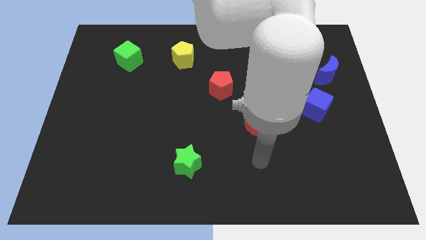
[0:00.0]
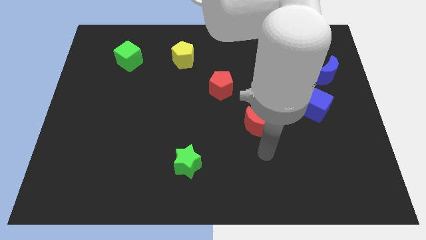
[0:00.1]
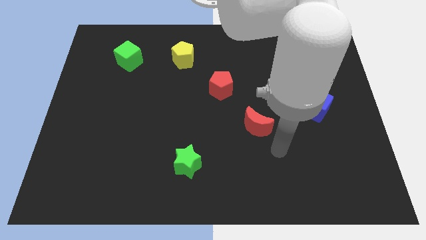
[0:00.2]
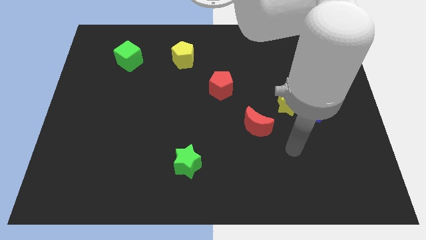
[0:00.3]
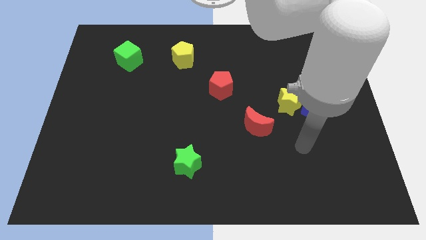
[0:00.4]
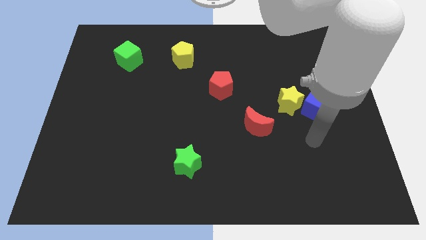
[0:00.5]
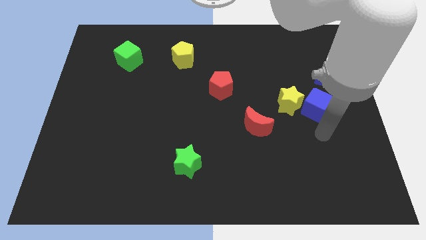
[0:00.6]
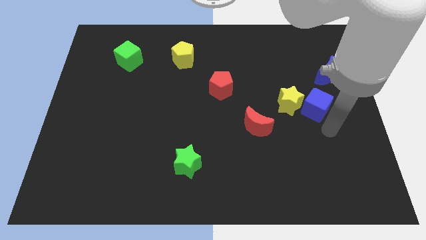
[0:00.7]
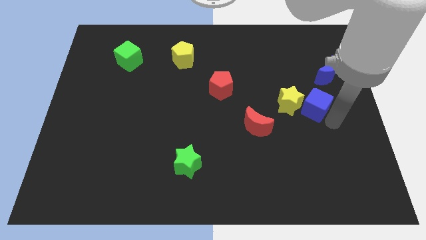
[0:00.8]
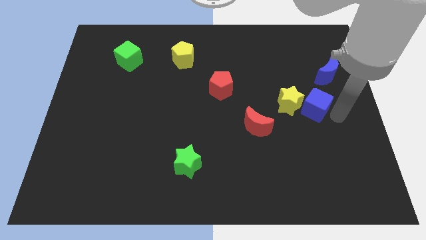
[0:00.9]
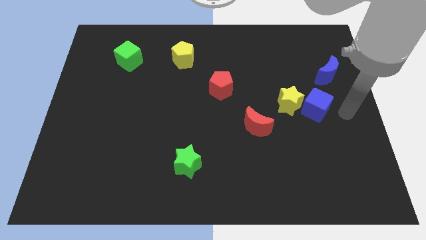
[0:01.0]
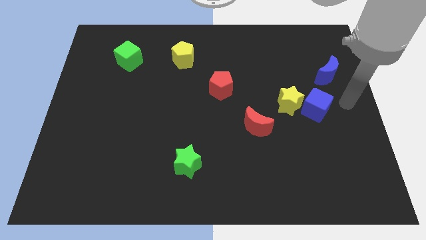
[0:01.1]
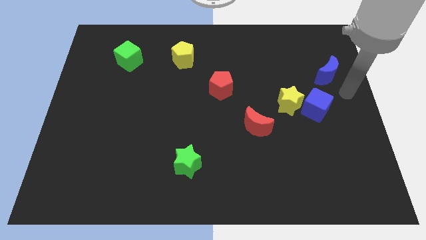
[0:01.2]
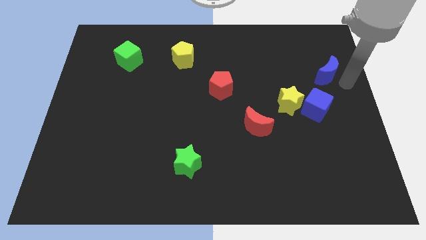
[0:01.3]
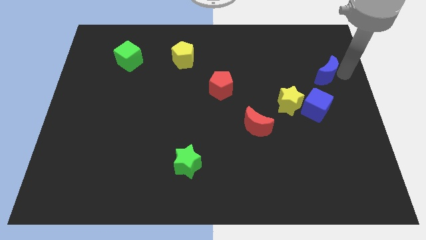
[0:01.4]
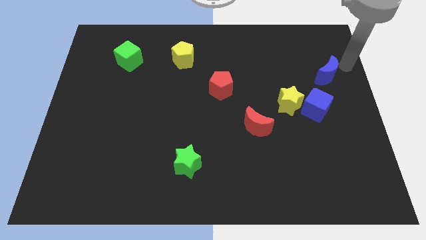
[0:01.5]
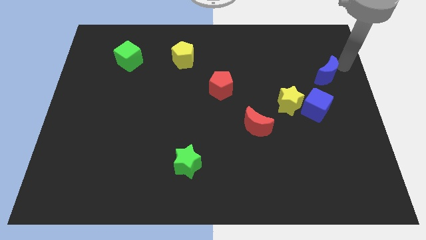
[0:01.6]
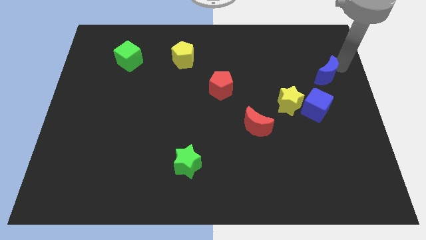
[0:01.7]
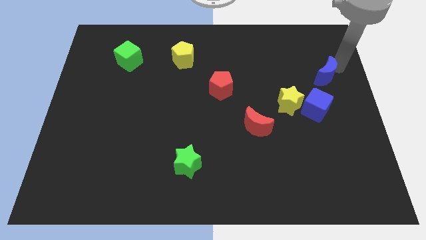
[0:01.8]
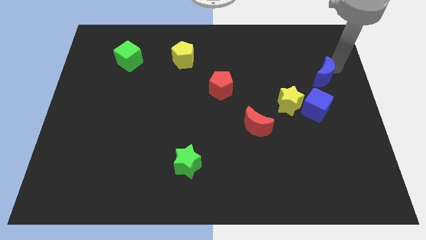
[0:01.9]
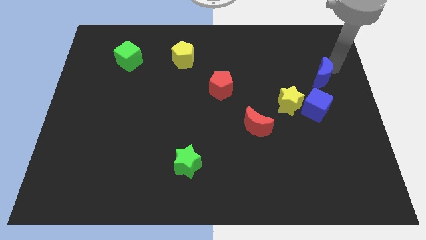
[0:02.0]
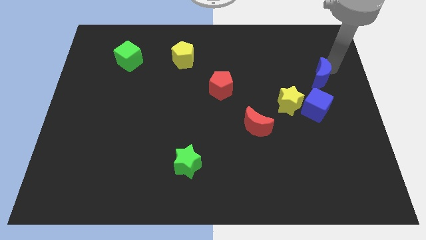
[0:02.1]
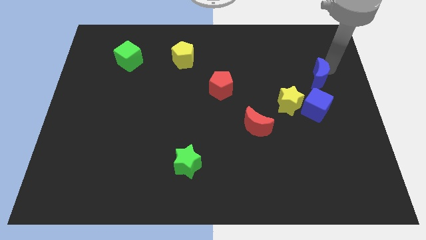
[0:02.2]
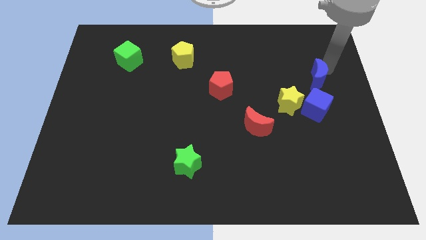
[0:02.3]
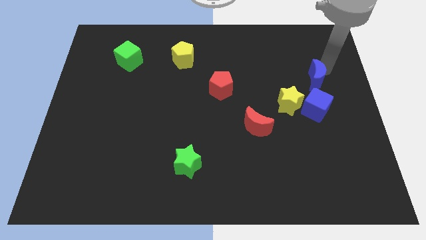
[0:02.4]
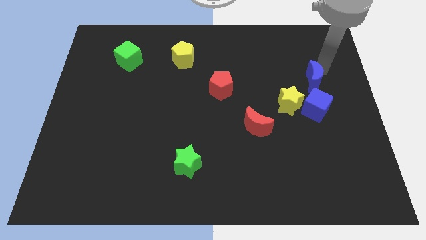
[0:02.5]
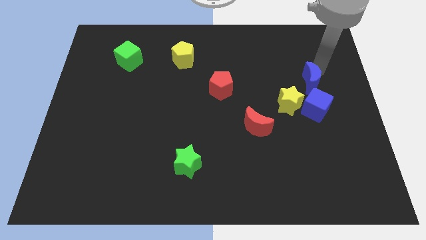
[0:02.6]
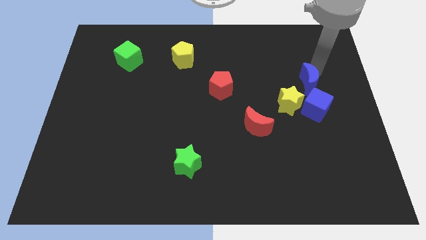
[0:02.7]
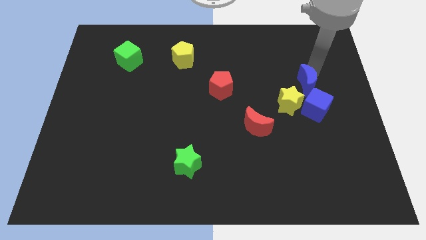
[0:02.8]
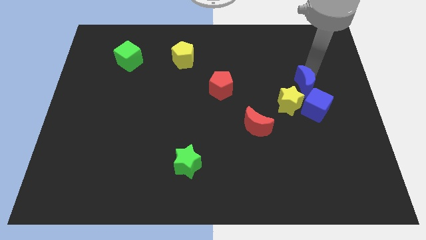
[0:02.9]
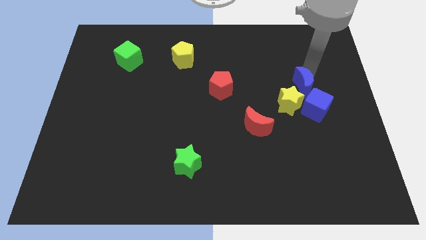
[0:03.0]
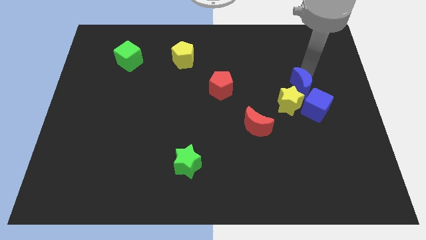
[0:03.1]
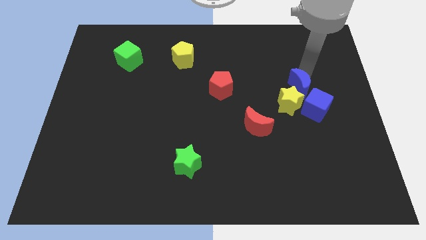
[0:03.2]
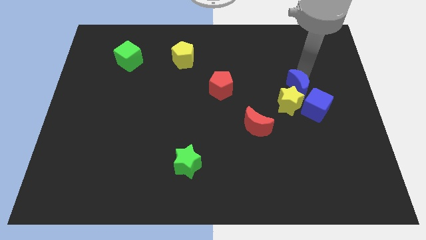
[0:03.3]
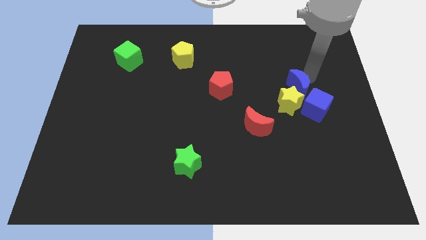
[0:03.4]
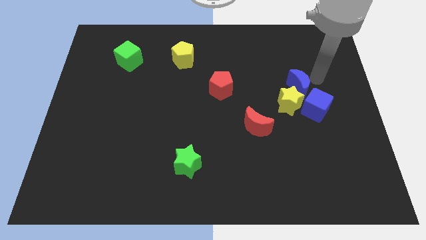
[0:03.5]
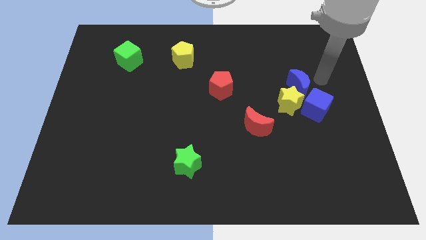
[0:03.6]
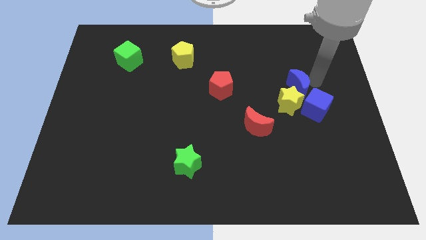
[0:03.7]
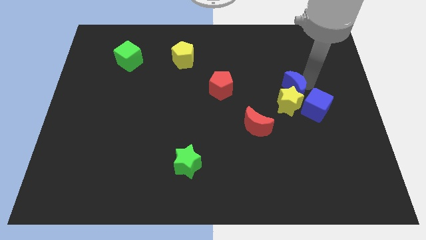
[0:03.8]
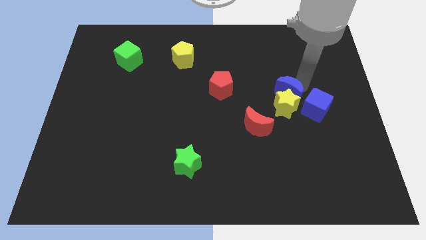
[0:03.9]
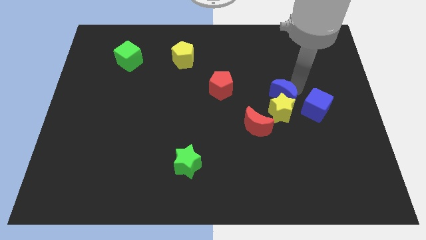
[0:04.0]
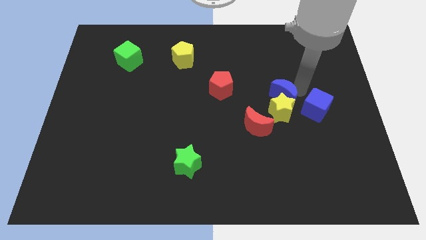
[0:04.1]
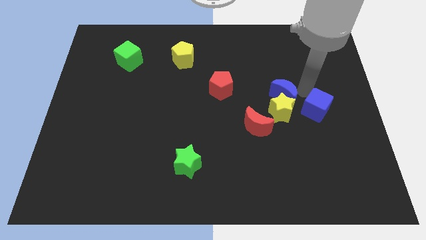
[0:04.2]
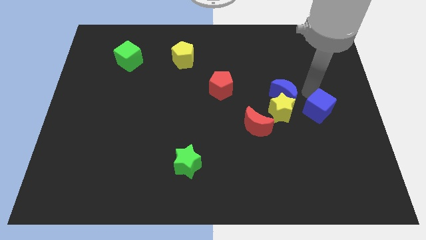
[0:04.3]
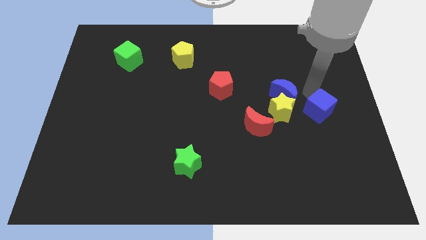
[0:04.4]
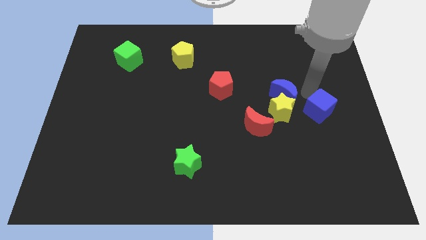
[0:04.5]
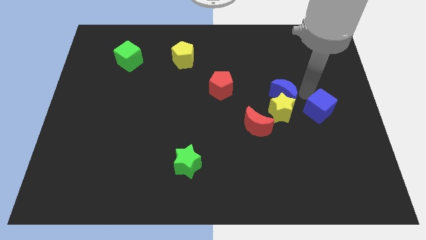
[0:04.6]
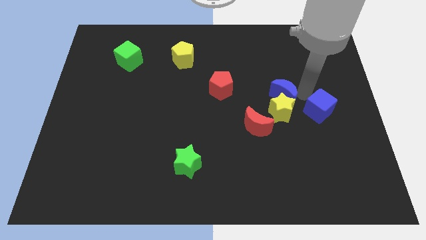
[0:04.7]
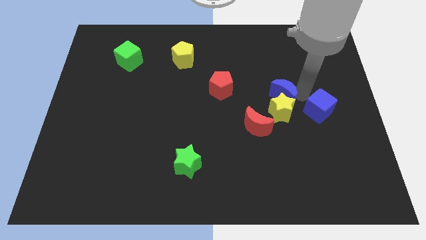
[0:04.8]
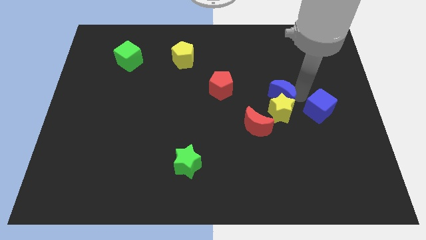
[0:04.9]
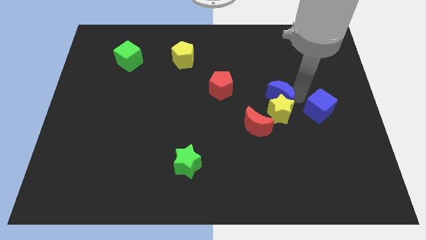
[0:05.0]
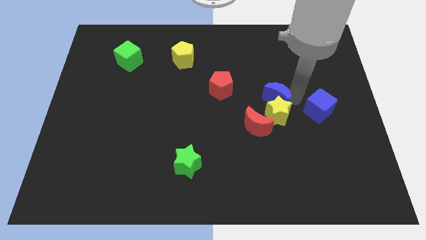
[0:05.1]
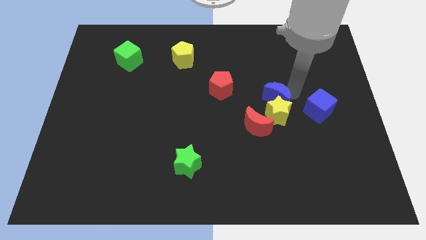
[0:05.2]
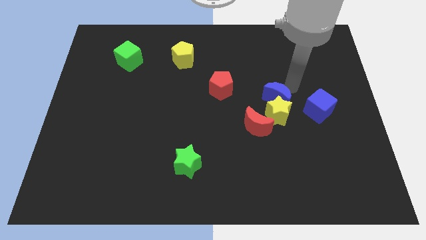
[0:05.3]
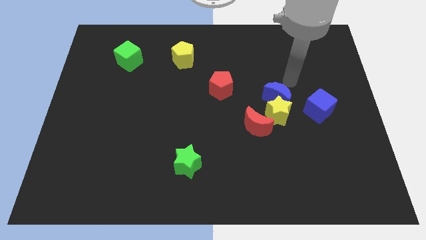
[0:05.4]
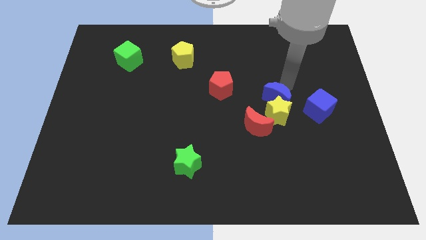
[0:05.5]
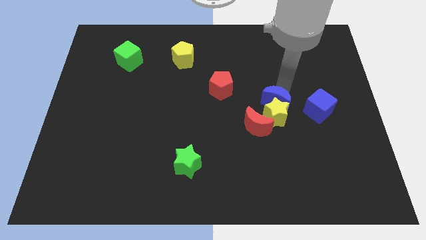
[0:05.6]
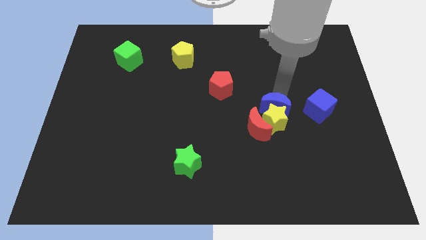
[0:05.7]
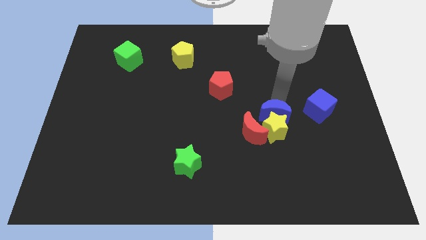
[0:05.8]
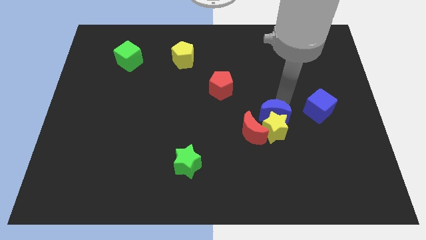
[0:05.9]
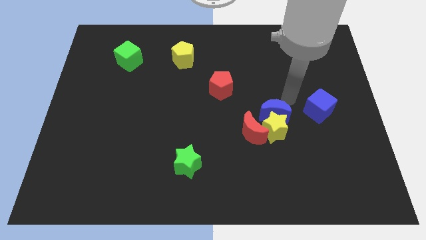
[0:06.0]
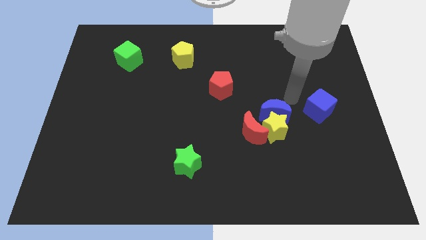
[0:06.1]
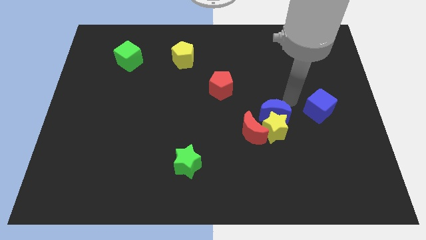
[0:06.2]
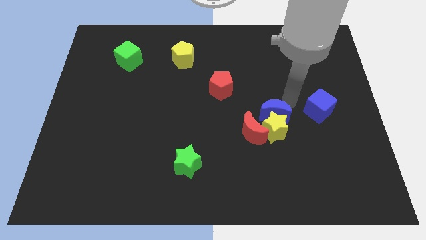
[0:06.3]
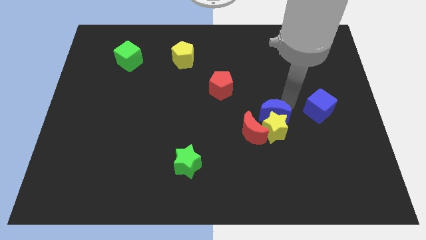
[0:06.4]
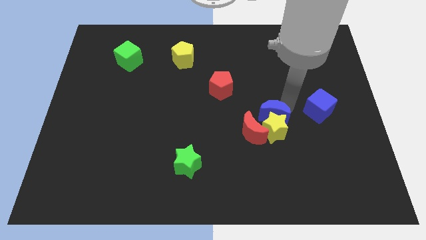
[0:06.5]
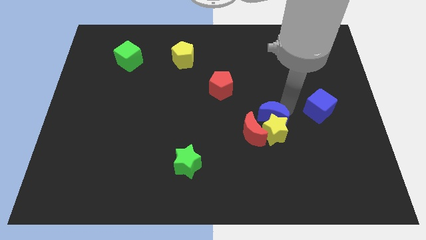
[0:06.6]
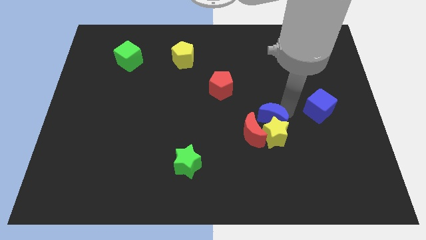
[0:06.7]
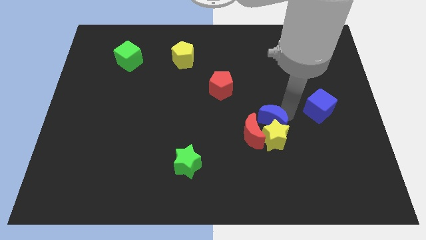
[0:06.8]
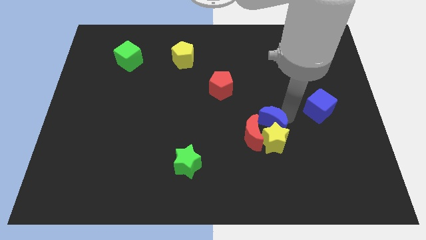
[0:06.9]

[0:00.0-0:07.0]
slide the blue moon towards the red moon

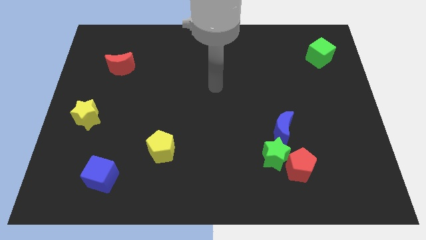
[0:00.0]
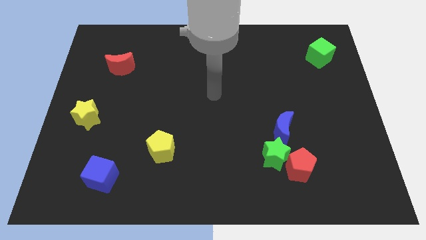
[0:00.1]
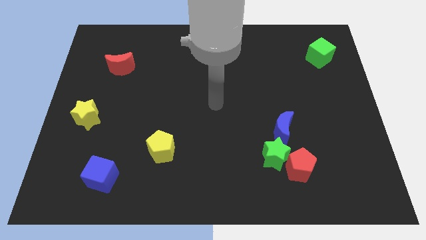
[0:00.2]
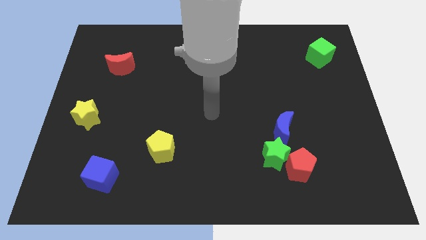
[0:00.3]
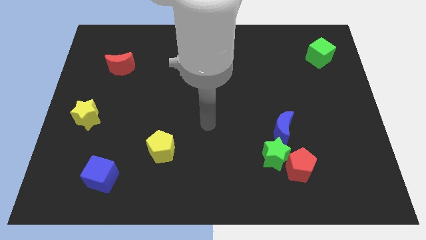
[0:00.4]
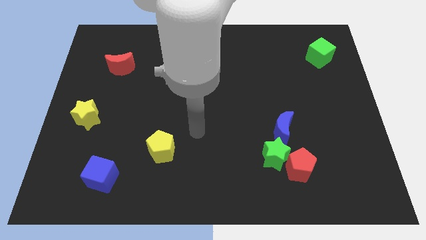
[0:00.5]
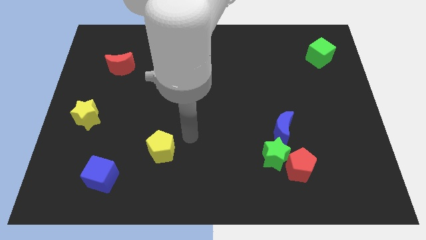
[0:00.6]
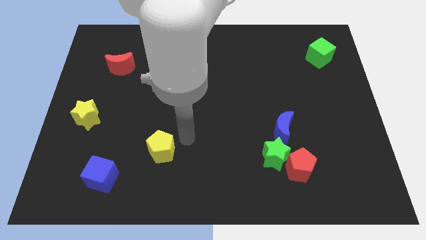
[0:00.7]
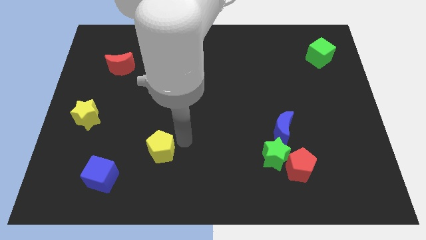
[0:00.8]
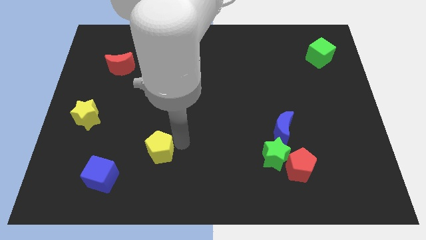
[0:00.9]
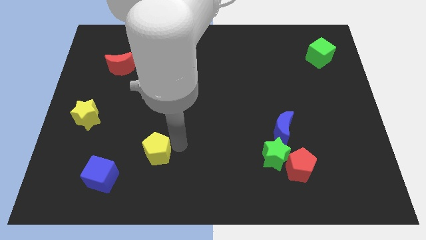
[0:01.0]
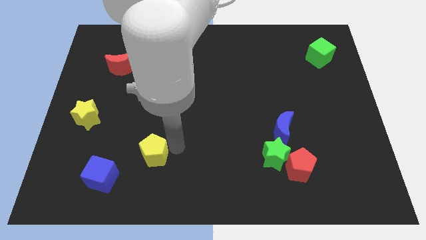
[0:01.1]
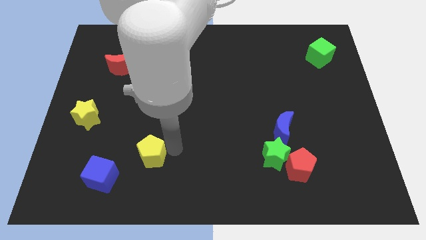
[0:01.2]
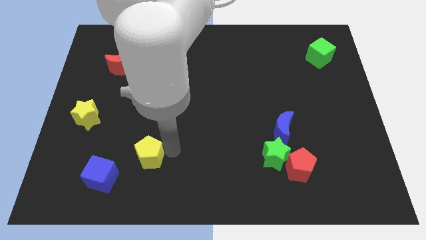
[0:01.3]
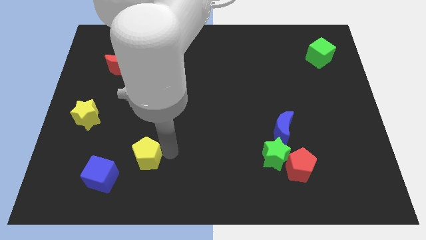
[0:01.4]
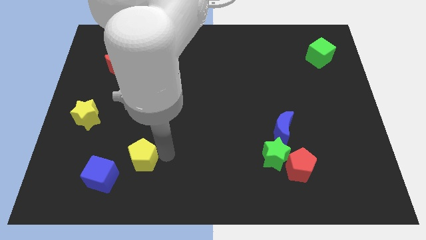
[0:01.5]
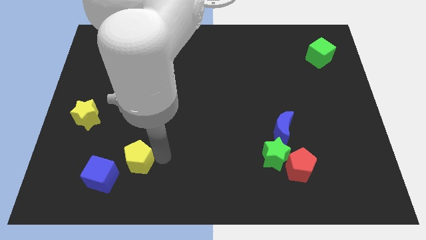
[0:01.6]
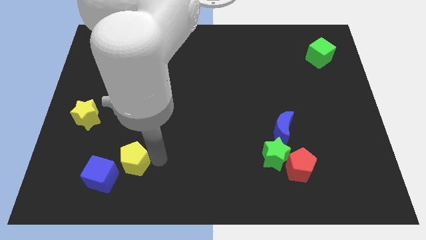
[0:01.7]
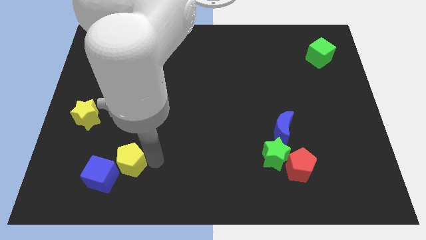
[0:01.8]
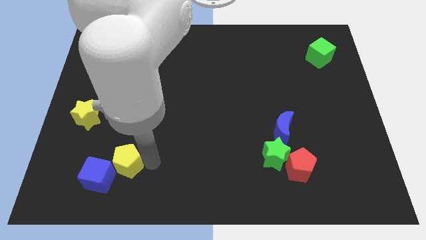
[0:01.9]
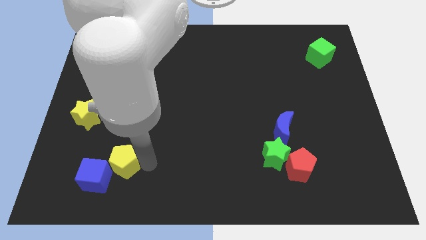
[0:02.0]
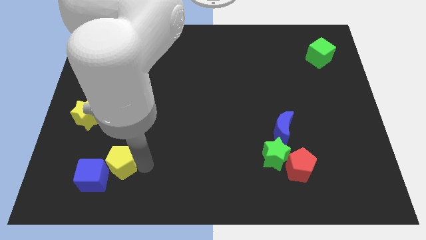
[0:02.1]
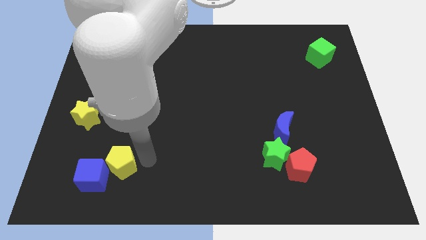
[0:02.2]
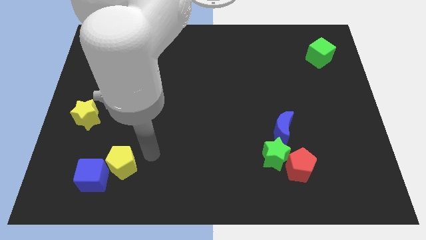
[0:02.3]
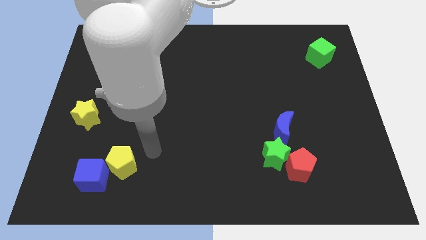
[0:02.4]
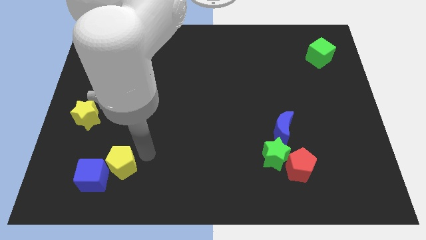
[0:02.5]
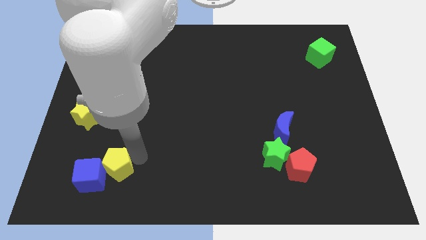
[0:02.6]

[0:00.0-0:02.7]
slide the yellow pentagon next to the blue cube
